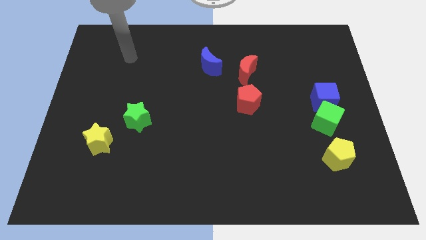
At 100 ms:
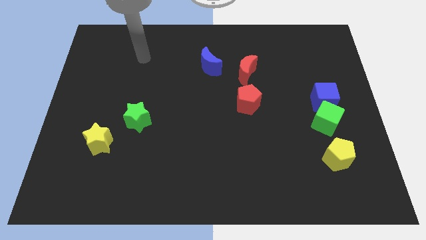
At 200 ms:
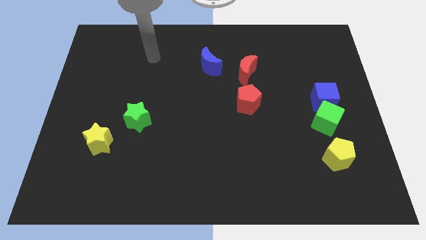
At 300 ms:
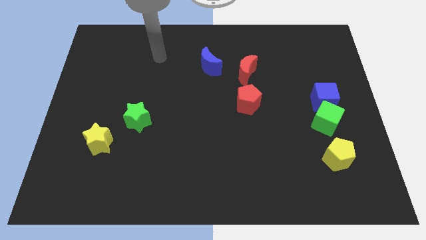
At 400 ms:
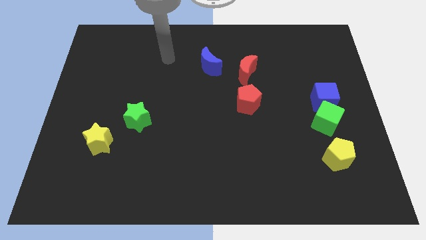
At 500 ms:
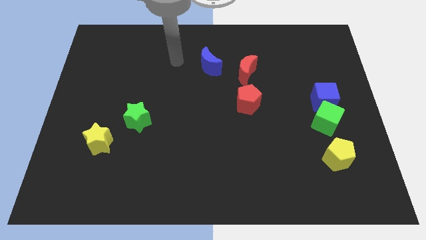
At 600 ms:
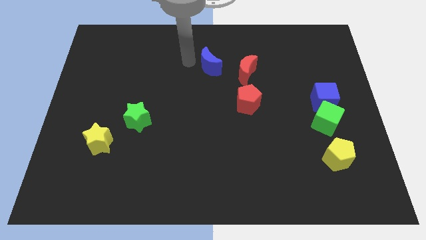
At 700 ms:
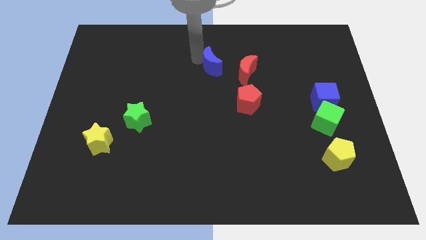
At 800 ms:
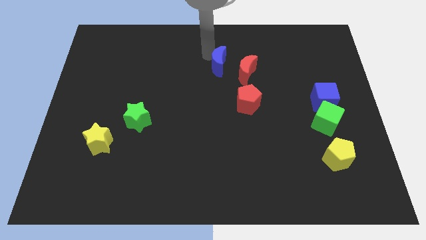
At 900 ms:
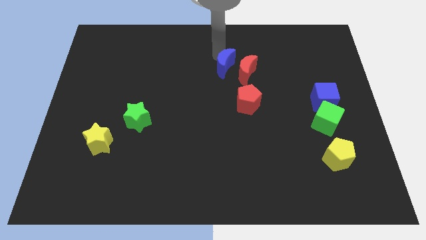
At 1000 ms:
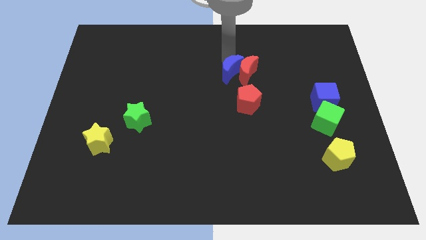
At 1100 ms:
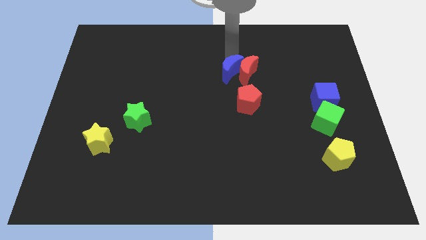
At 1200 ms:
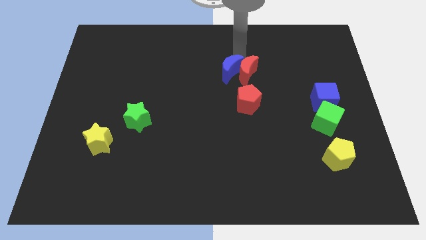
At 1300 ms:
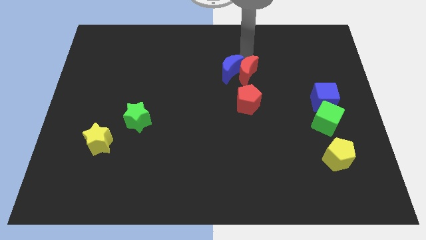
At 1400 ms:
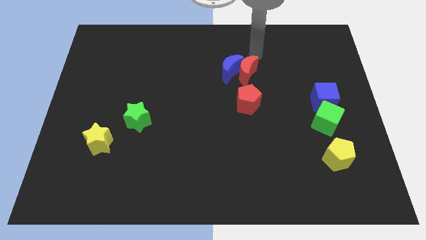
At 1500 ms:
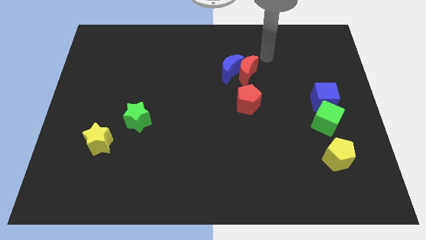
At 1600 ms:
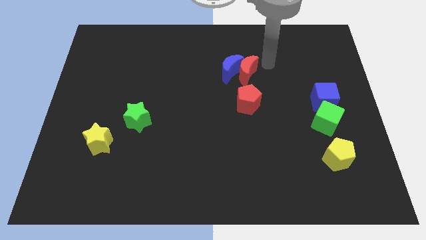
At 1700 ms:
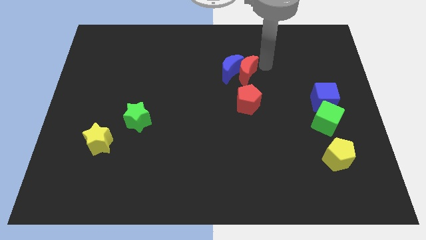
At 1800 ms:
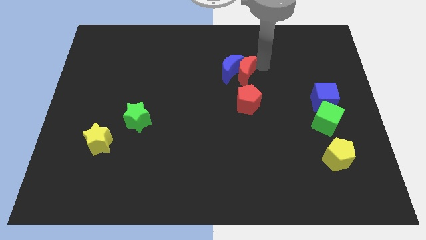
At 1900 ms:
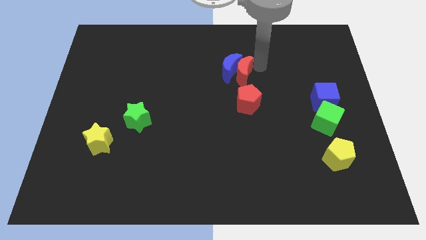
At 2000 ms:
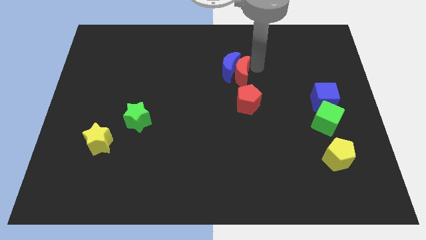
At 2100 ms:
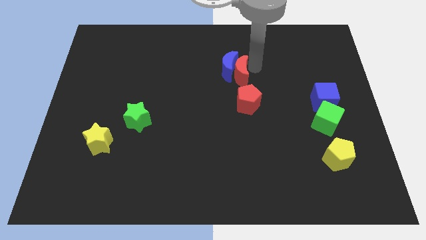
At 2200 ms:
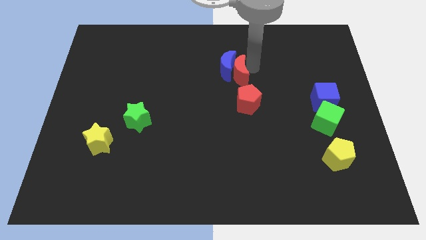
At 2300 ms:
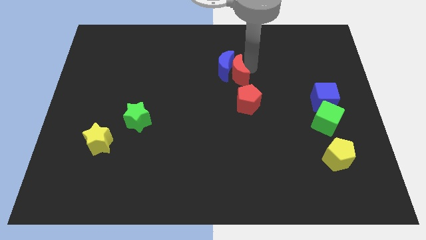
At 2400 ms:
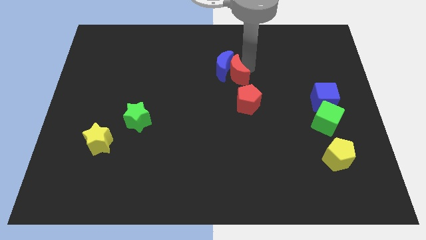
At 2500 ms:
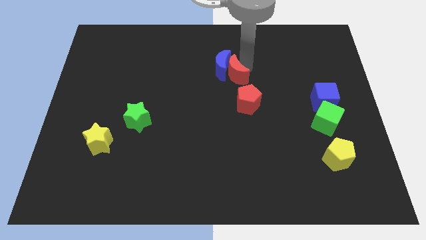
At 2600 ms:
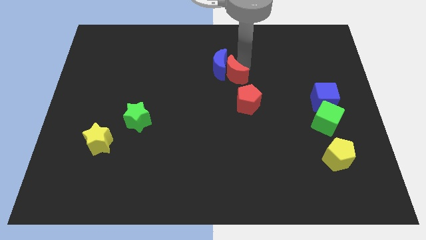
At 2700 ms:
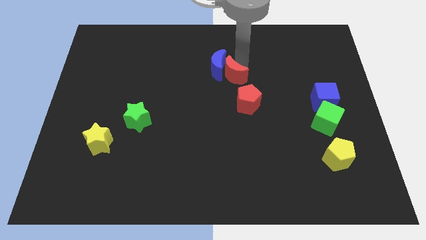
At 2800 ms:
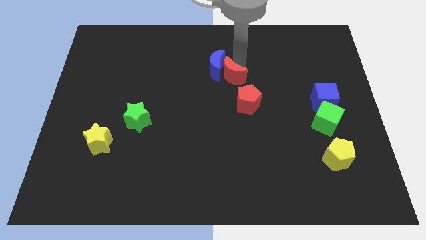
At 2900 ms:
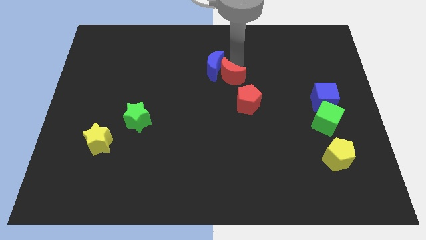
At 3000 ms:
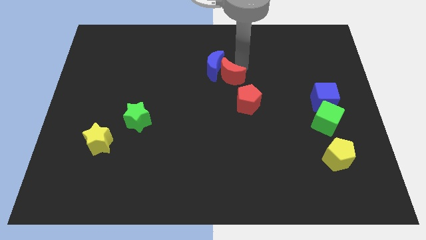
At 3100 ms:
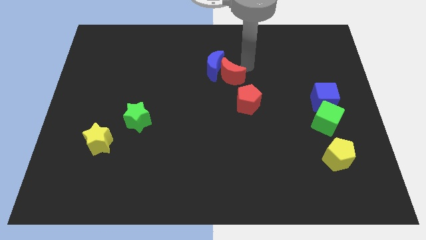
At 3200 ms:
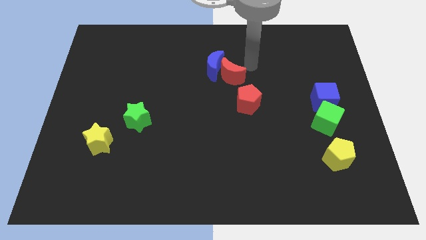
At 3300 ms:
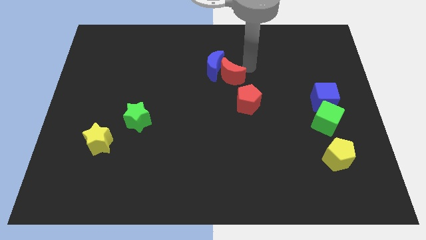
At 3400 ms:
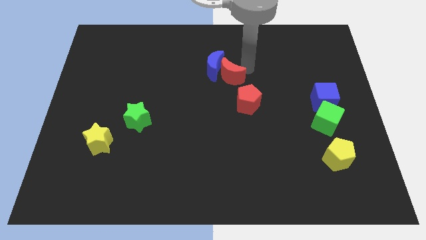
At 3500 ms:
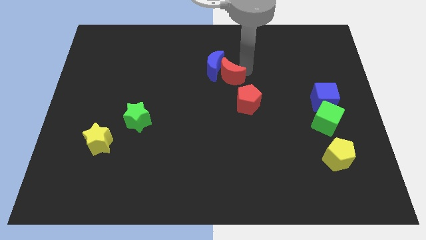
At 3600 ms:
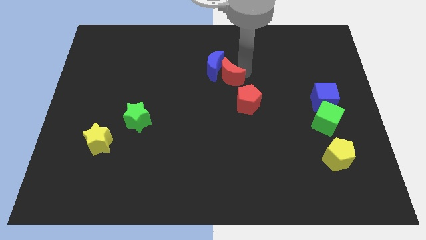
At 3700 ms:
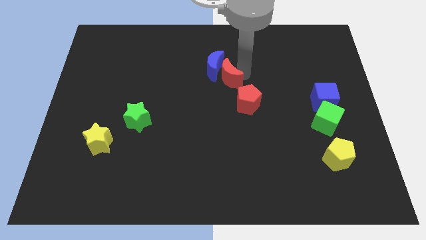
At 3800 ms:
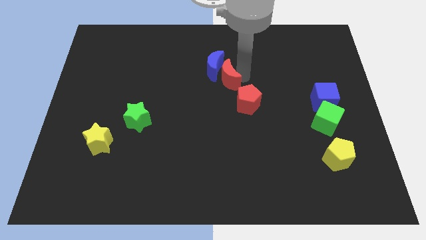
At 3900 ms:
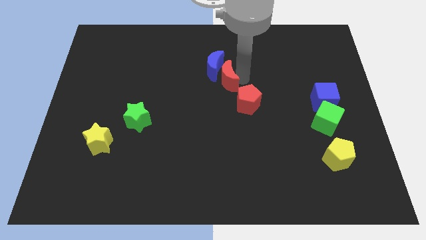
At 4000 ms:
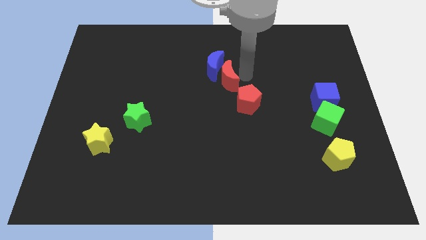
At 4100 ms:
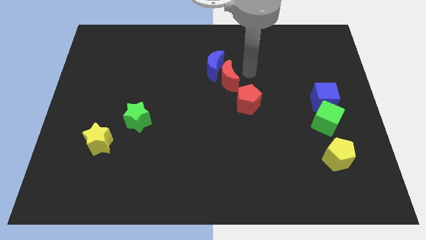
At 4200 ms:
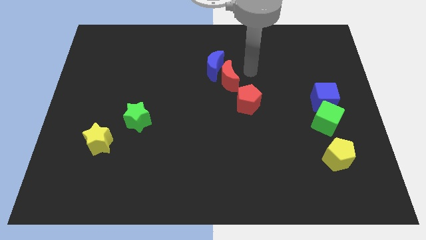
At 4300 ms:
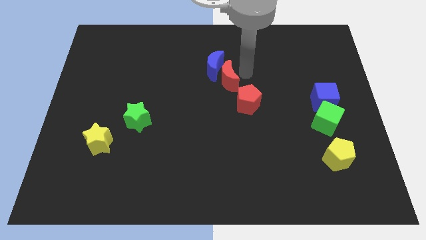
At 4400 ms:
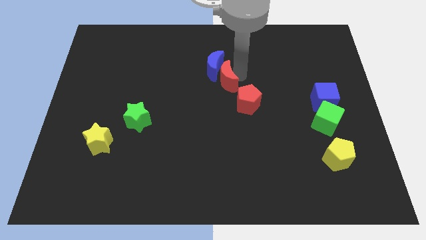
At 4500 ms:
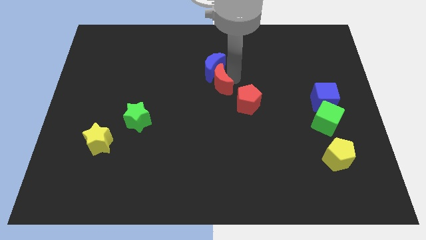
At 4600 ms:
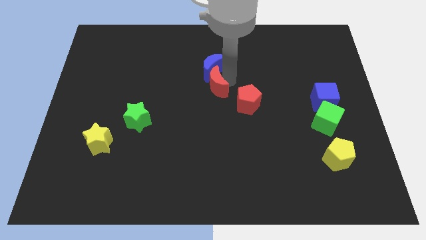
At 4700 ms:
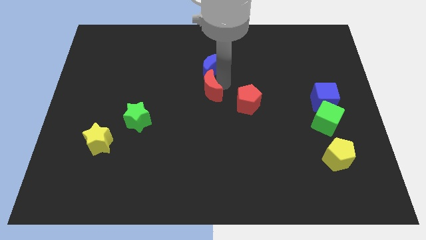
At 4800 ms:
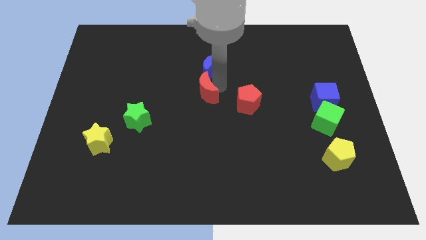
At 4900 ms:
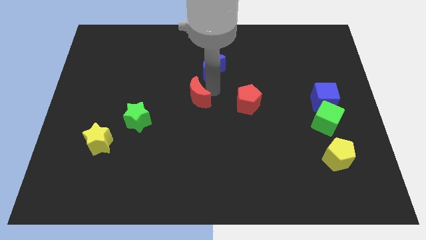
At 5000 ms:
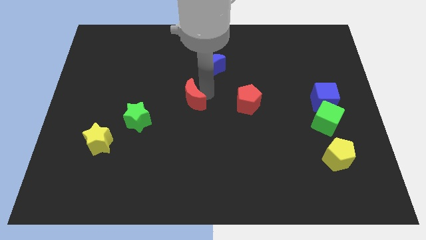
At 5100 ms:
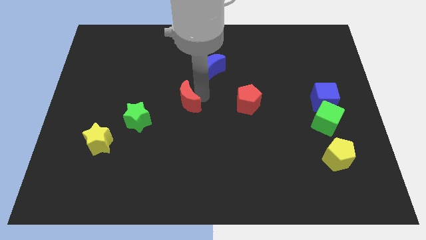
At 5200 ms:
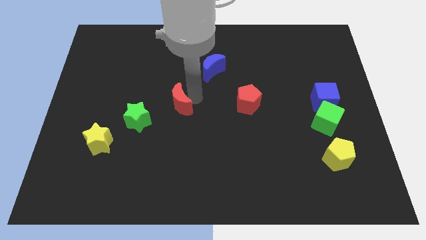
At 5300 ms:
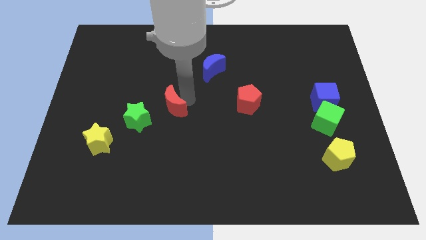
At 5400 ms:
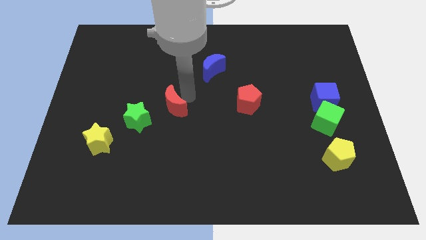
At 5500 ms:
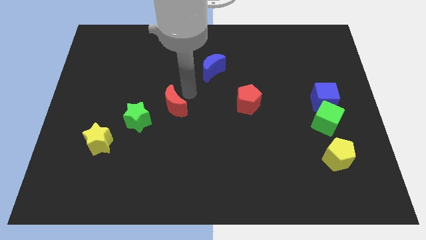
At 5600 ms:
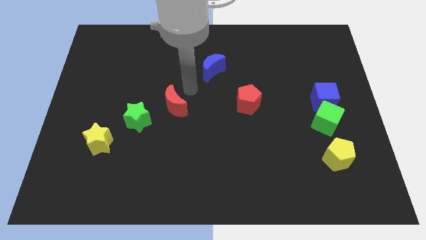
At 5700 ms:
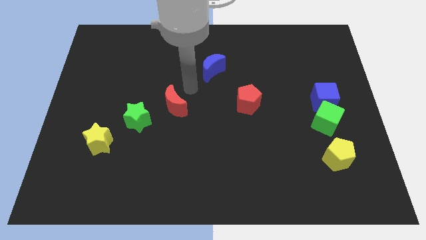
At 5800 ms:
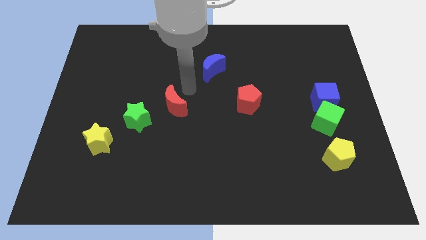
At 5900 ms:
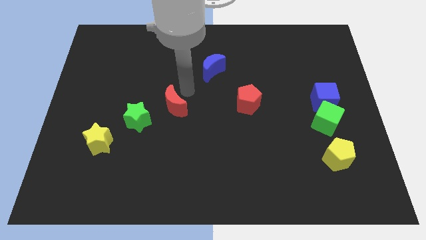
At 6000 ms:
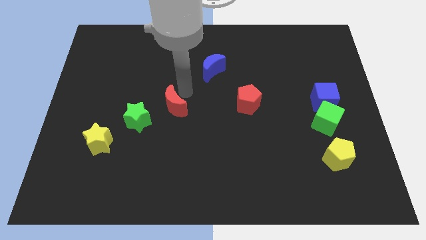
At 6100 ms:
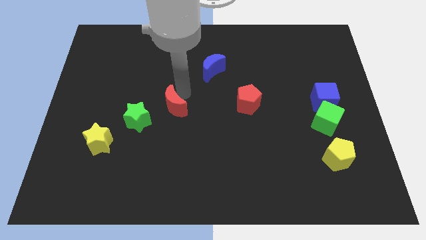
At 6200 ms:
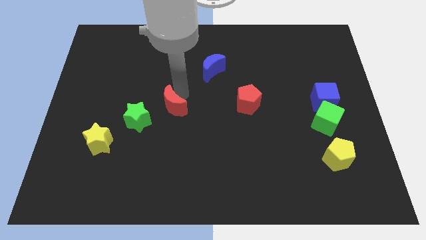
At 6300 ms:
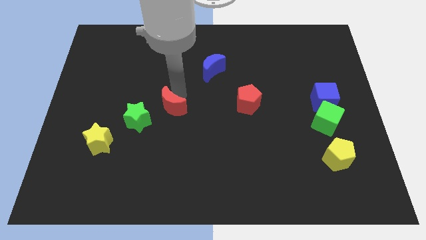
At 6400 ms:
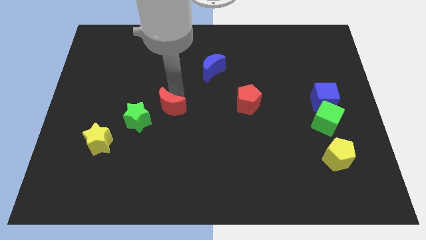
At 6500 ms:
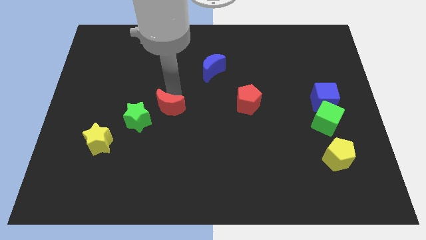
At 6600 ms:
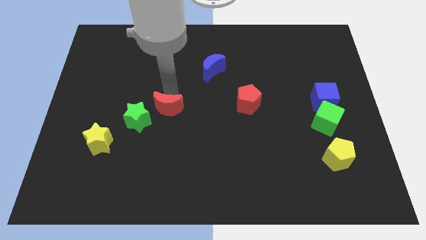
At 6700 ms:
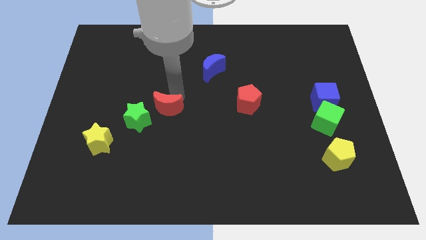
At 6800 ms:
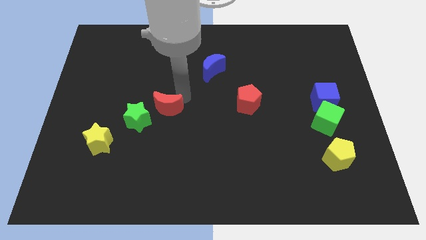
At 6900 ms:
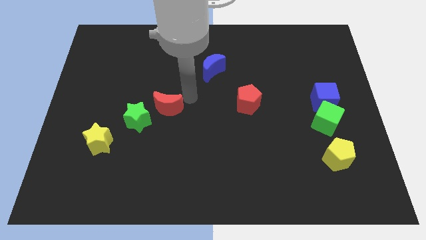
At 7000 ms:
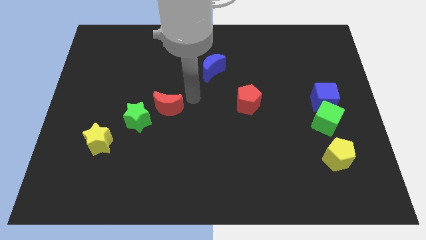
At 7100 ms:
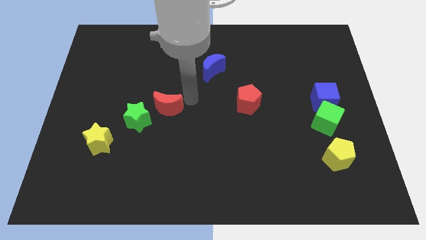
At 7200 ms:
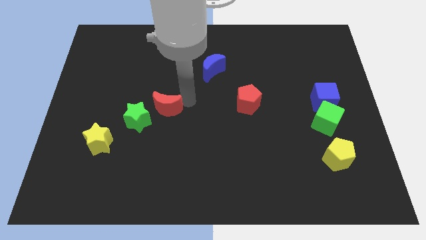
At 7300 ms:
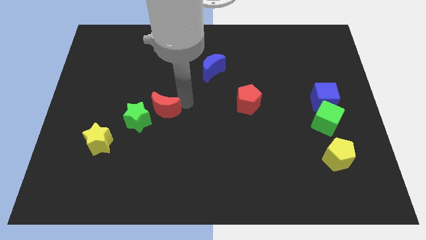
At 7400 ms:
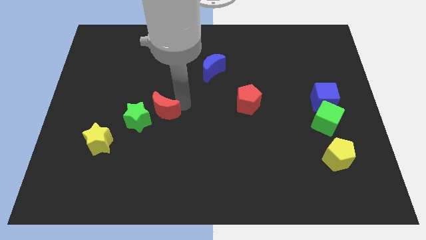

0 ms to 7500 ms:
move the red moon to the green star
